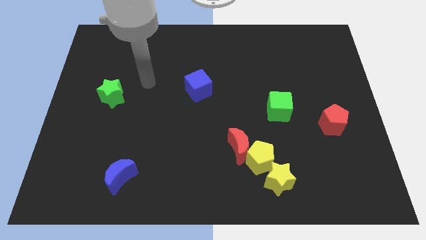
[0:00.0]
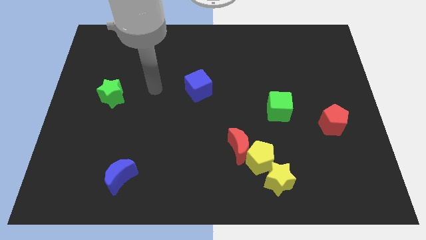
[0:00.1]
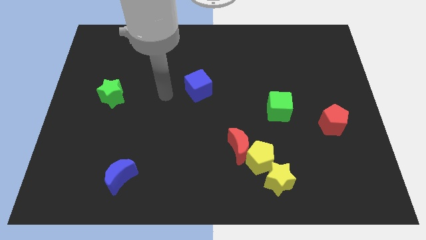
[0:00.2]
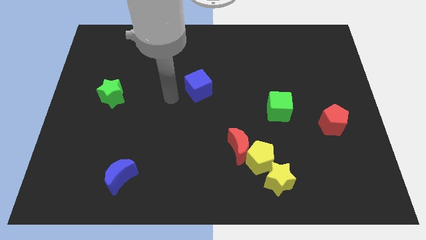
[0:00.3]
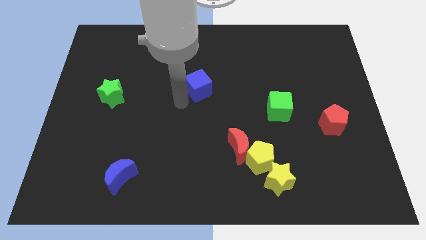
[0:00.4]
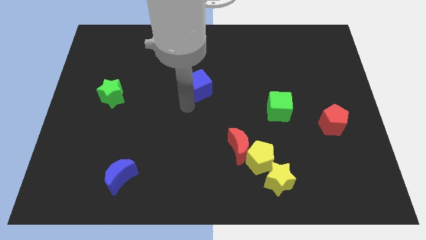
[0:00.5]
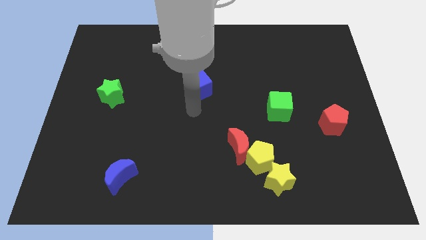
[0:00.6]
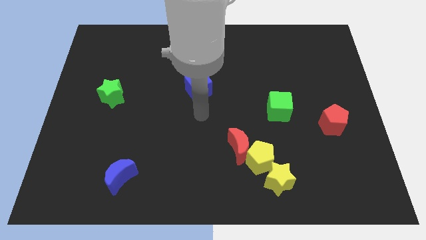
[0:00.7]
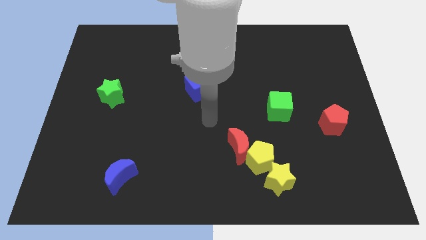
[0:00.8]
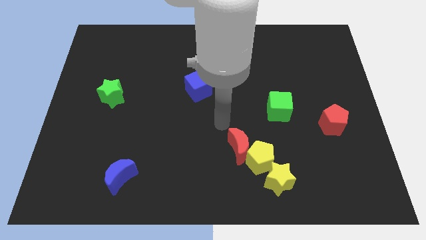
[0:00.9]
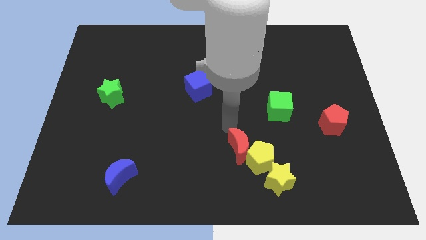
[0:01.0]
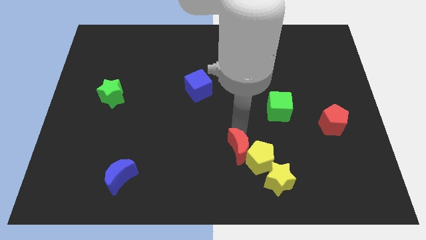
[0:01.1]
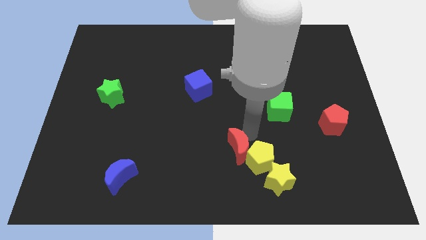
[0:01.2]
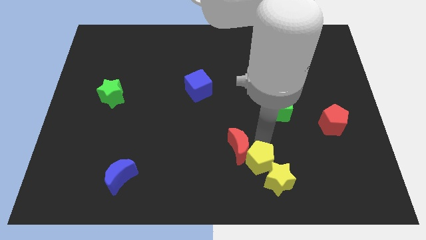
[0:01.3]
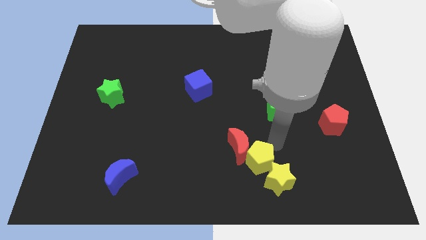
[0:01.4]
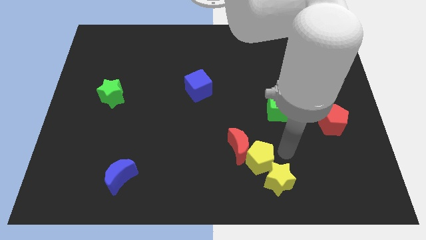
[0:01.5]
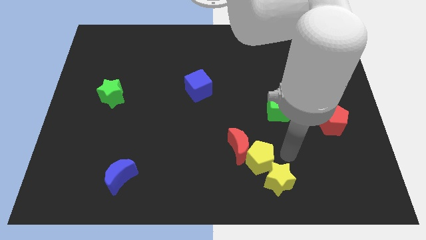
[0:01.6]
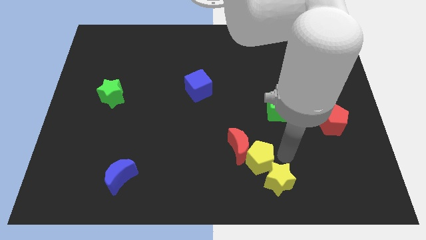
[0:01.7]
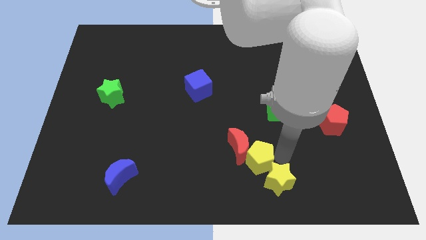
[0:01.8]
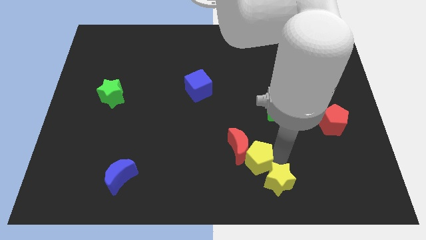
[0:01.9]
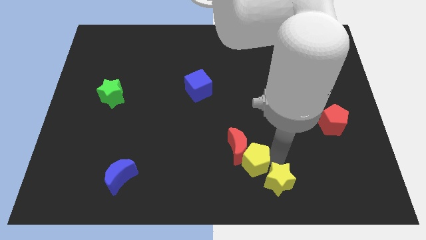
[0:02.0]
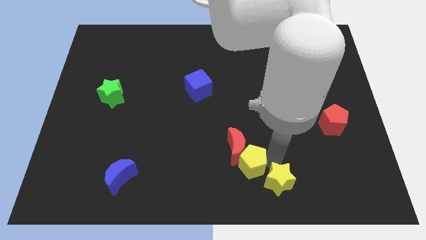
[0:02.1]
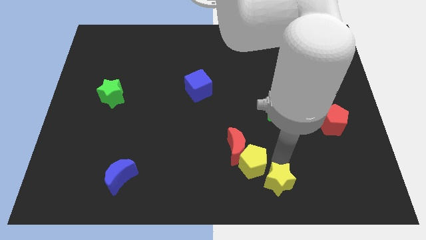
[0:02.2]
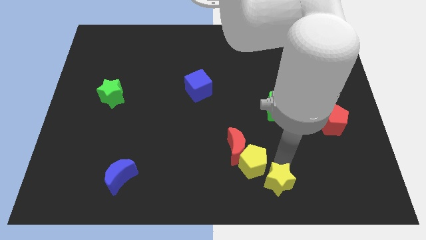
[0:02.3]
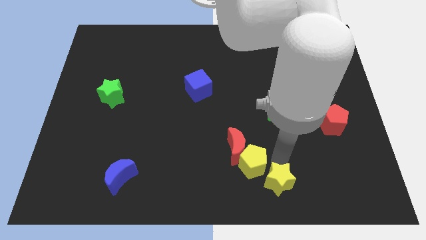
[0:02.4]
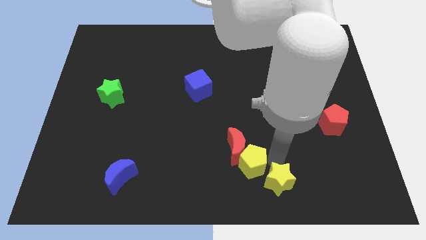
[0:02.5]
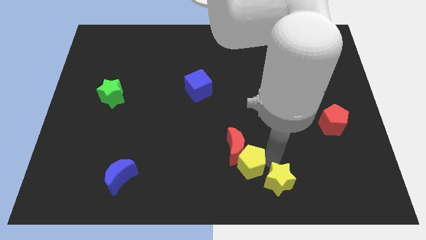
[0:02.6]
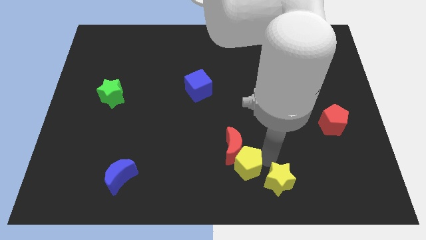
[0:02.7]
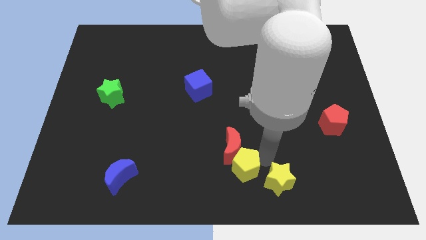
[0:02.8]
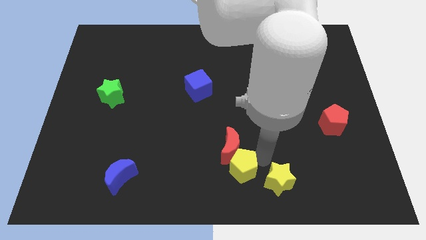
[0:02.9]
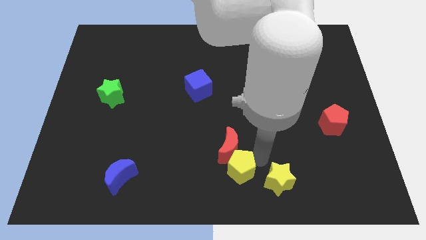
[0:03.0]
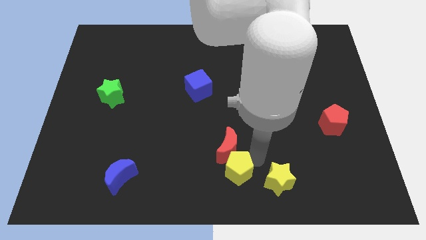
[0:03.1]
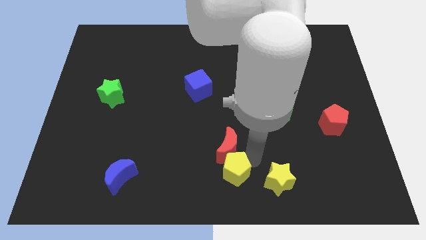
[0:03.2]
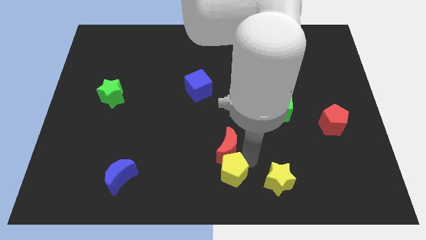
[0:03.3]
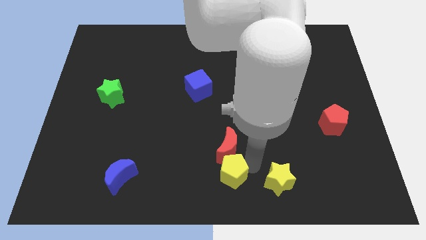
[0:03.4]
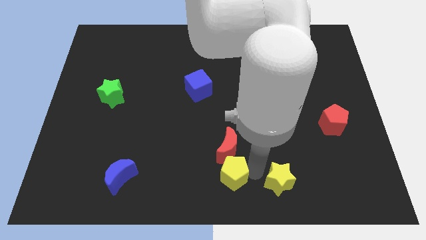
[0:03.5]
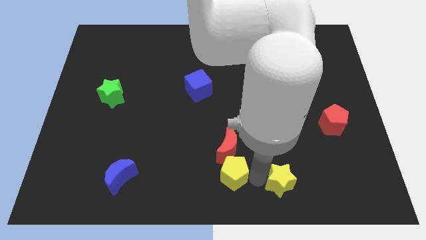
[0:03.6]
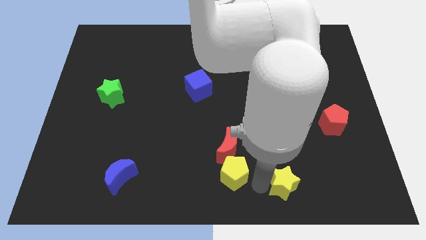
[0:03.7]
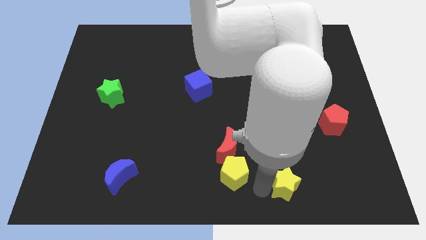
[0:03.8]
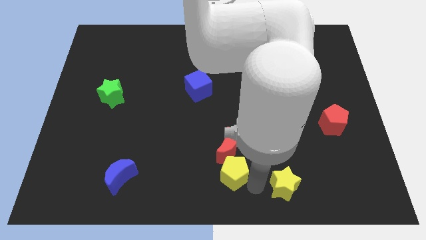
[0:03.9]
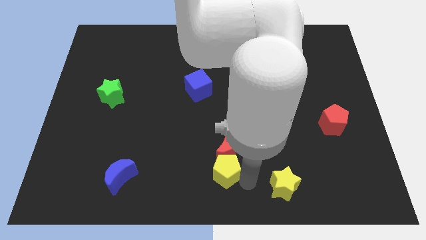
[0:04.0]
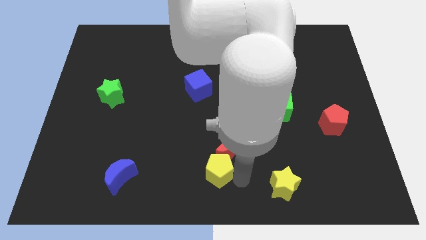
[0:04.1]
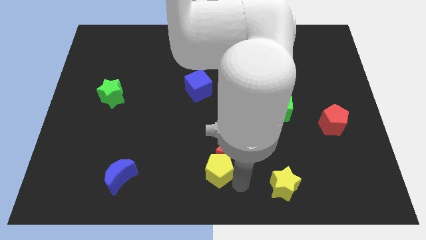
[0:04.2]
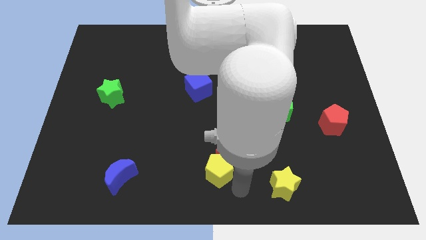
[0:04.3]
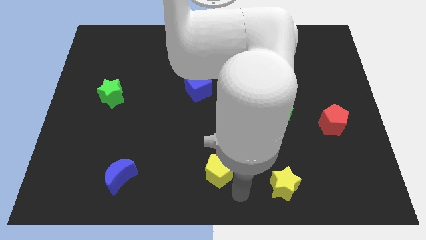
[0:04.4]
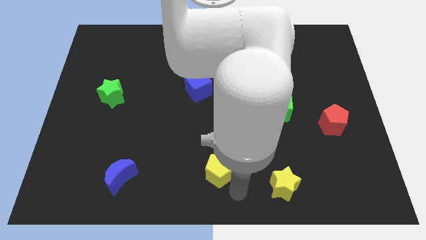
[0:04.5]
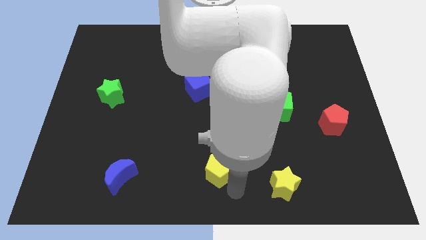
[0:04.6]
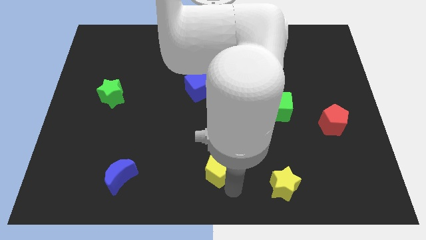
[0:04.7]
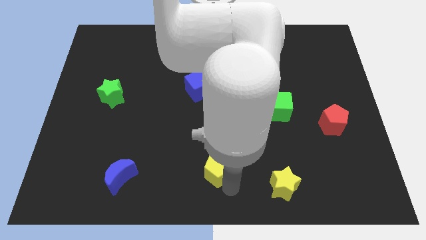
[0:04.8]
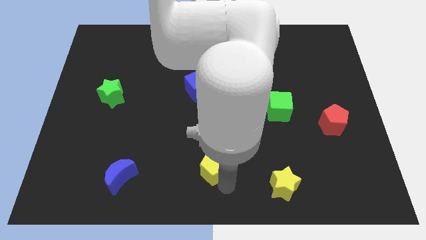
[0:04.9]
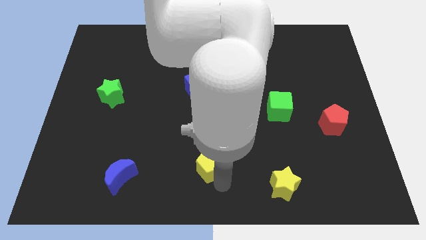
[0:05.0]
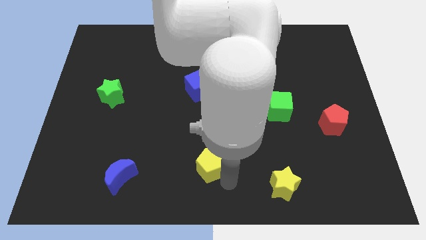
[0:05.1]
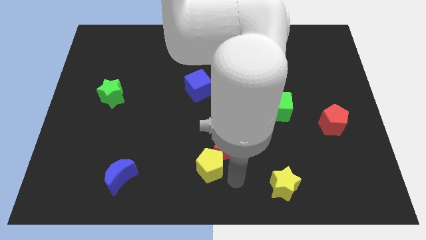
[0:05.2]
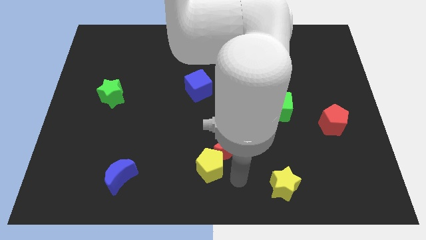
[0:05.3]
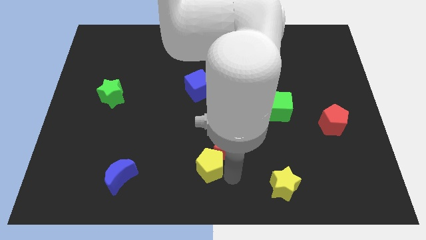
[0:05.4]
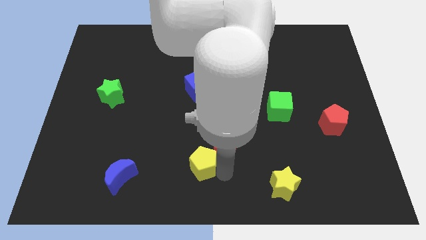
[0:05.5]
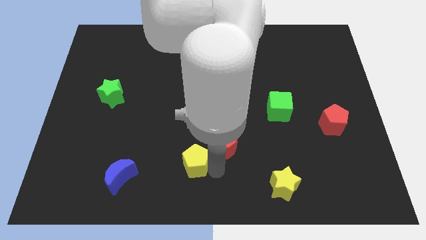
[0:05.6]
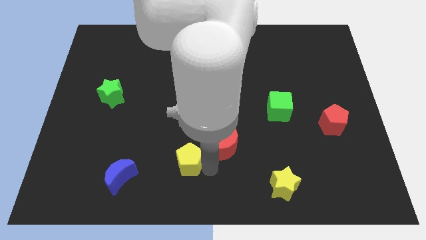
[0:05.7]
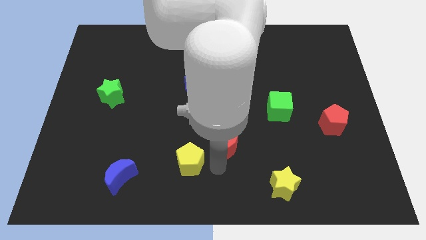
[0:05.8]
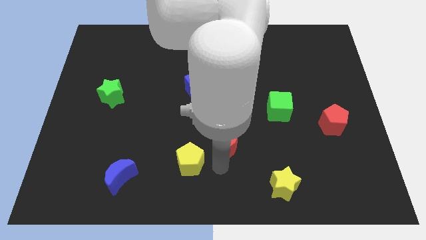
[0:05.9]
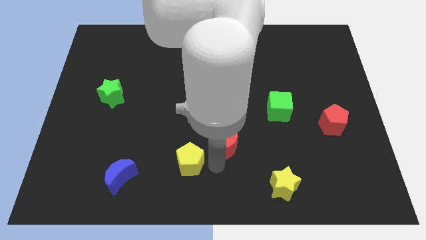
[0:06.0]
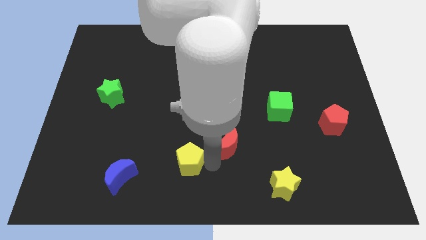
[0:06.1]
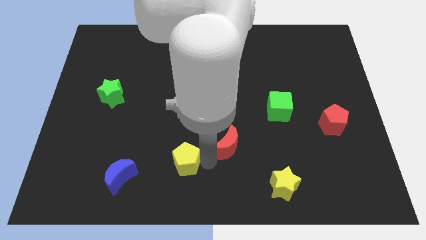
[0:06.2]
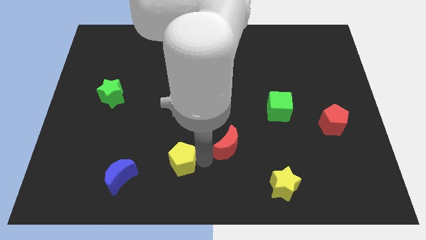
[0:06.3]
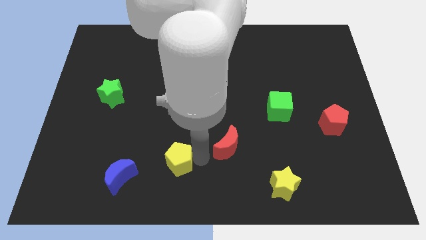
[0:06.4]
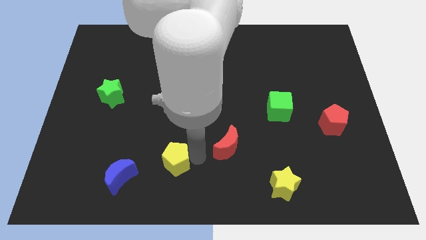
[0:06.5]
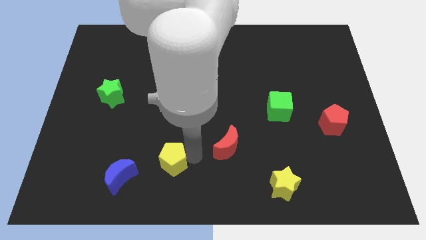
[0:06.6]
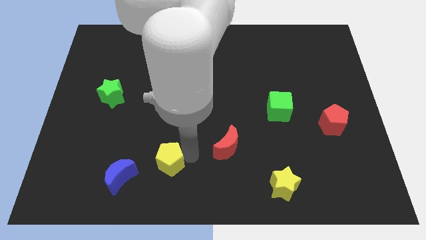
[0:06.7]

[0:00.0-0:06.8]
move the yellow pentagon to the top right side of the blue moon
